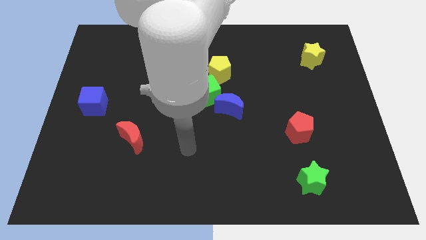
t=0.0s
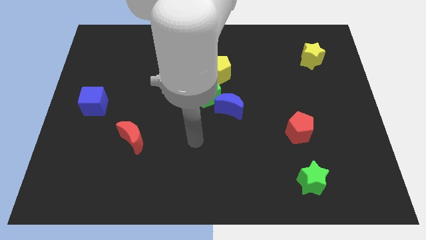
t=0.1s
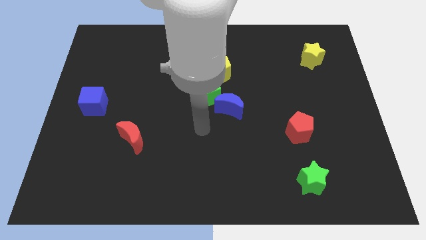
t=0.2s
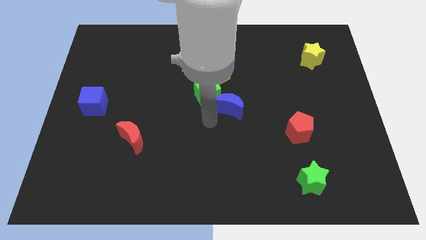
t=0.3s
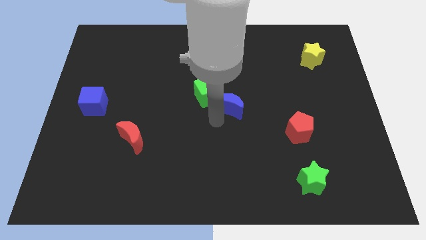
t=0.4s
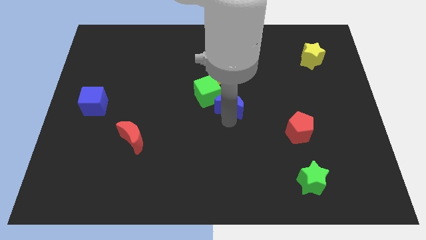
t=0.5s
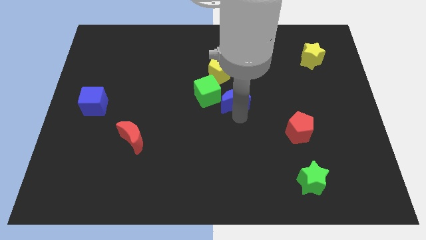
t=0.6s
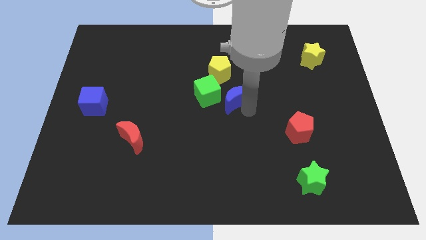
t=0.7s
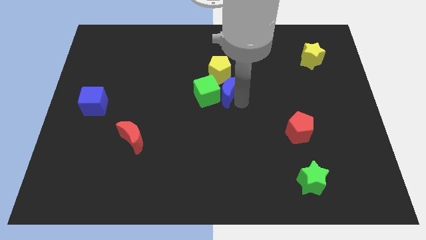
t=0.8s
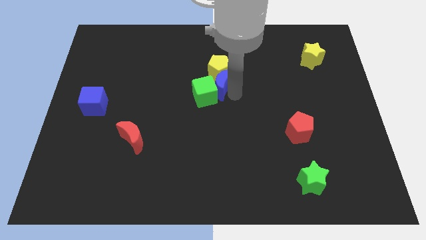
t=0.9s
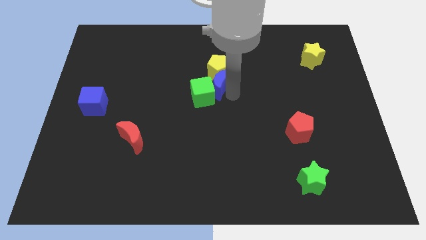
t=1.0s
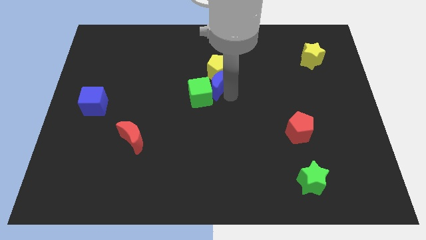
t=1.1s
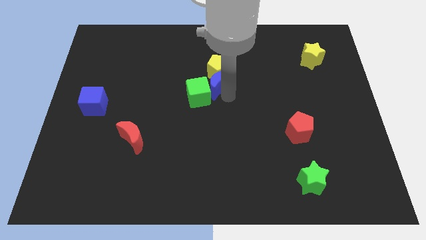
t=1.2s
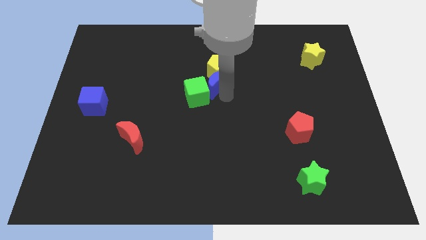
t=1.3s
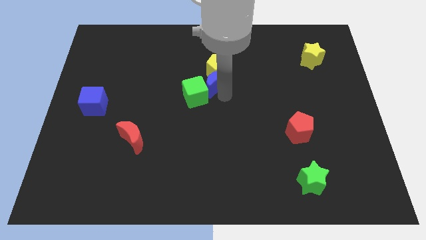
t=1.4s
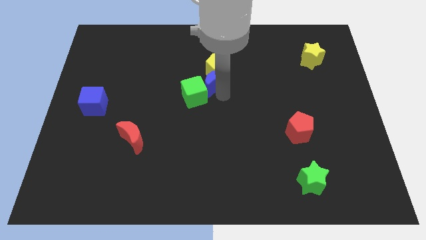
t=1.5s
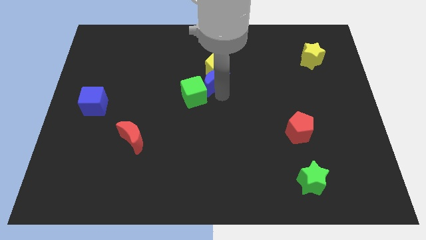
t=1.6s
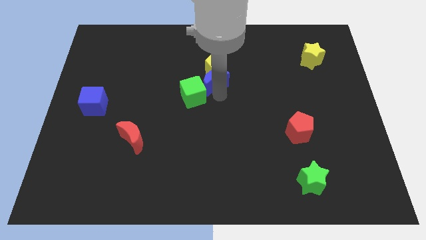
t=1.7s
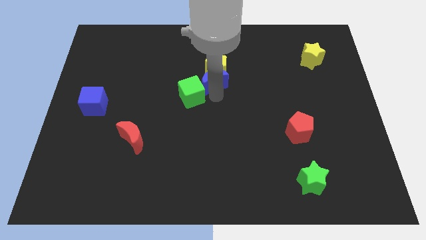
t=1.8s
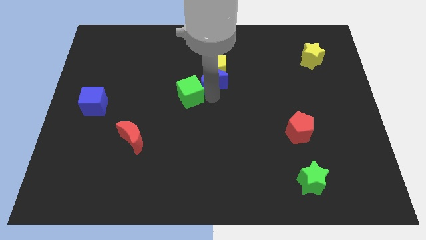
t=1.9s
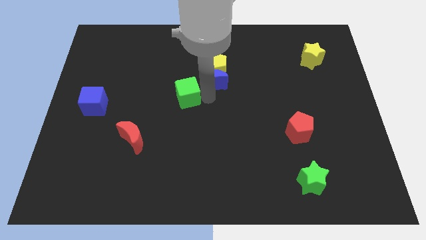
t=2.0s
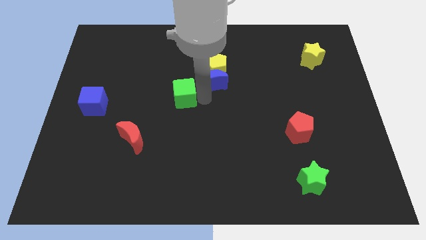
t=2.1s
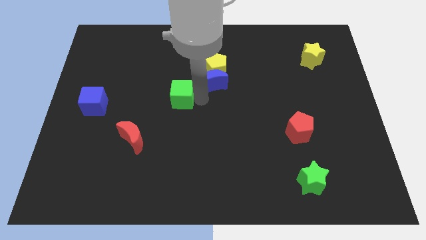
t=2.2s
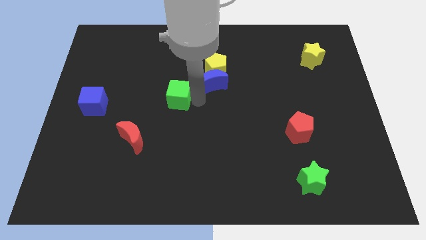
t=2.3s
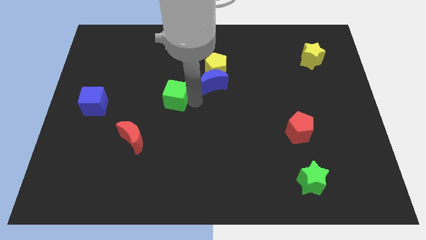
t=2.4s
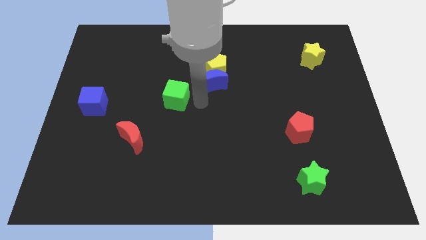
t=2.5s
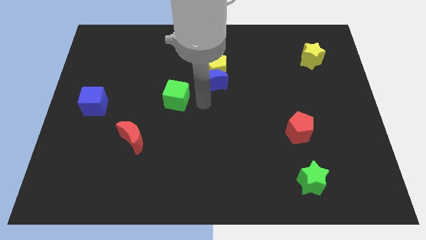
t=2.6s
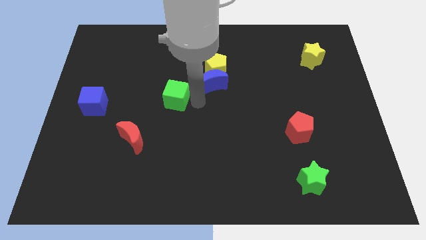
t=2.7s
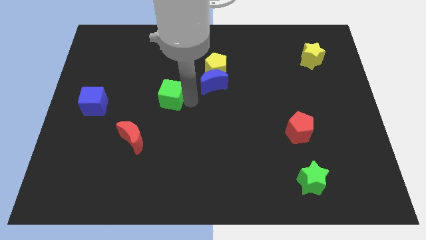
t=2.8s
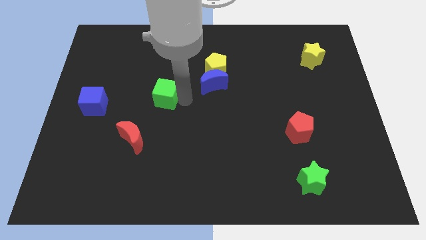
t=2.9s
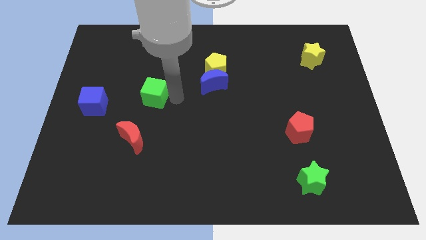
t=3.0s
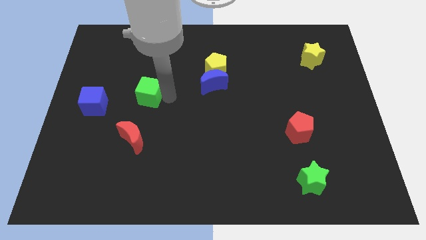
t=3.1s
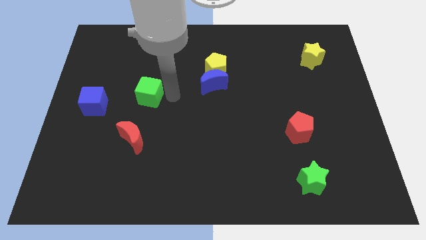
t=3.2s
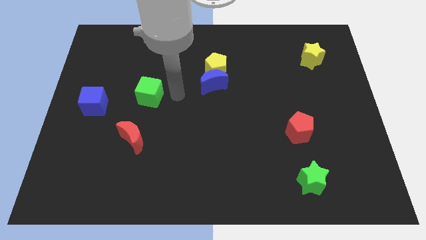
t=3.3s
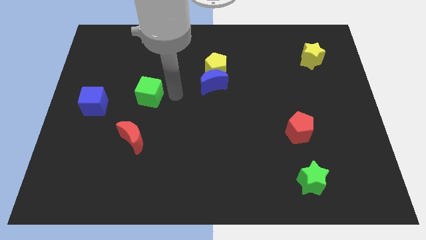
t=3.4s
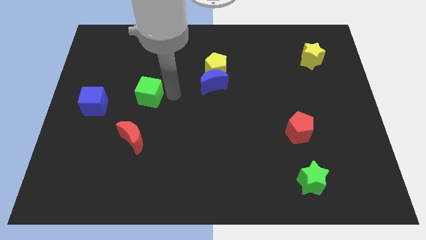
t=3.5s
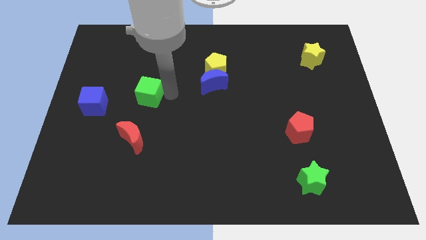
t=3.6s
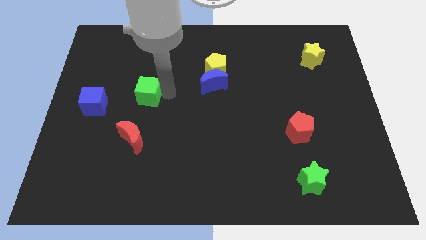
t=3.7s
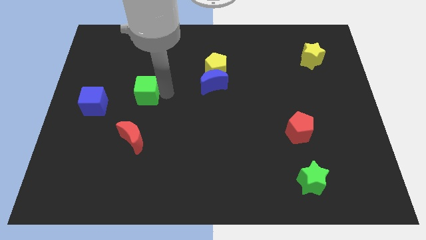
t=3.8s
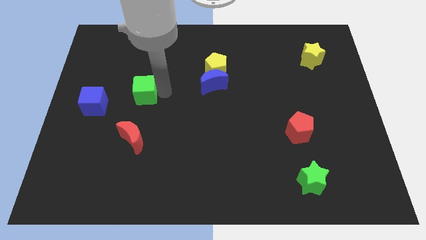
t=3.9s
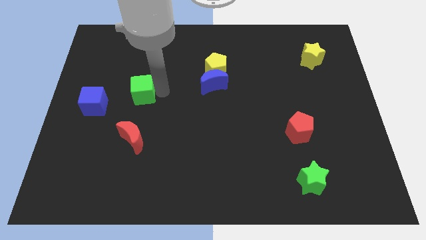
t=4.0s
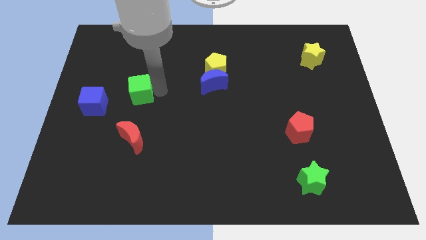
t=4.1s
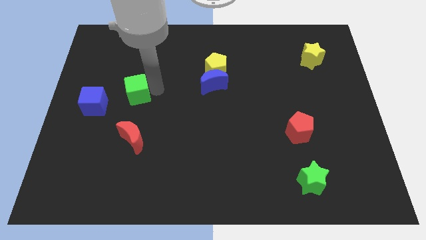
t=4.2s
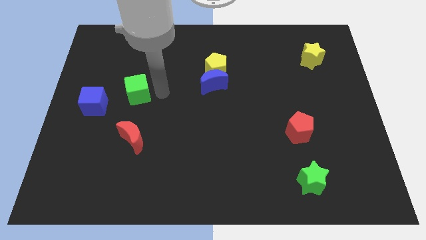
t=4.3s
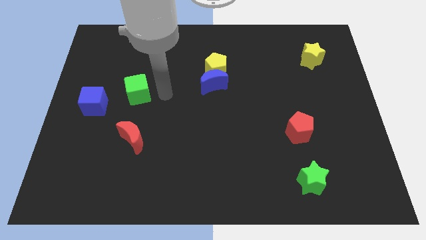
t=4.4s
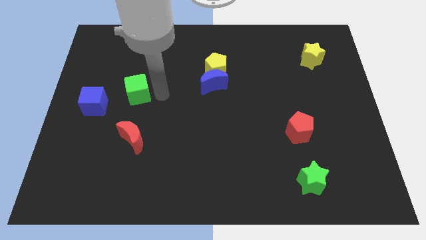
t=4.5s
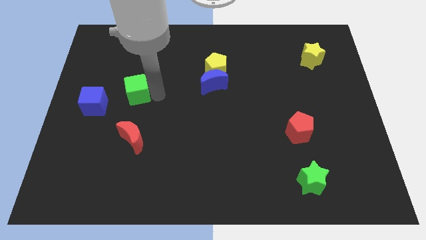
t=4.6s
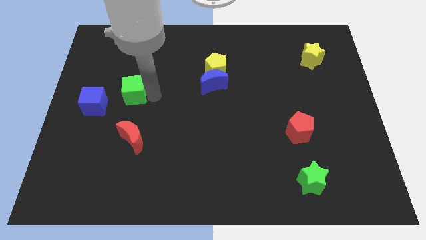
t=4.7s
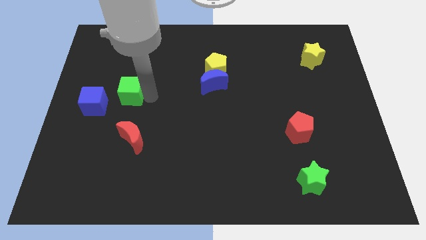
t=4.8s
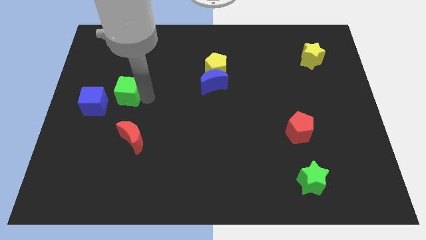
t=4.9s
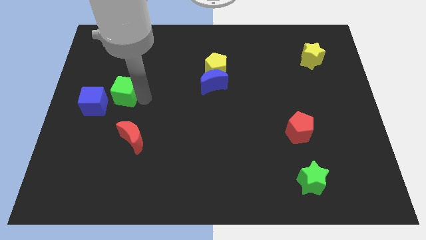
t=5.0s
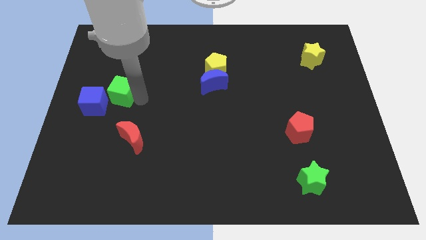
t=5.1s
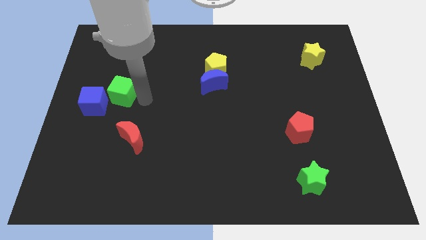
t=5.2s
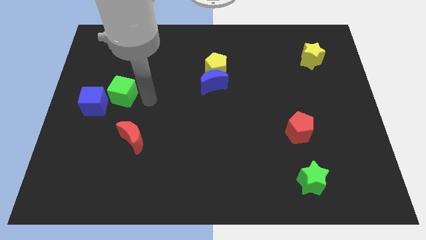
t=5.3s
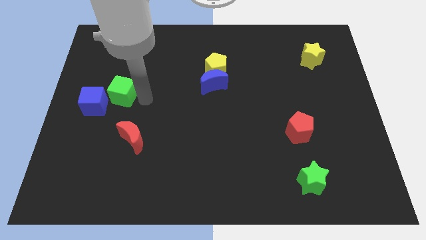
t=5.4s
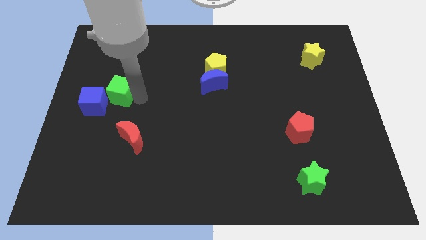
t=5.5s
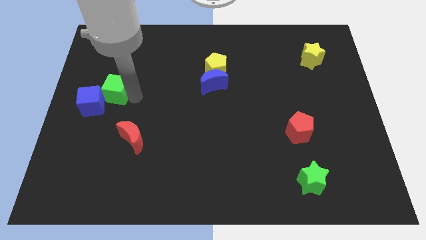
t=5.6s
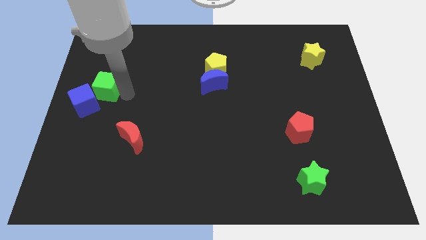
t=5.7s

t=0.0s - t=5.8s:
put the green cube to the left side

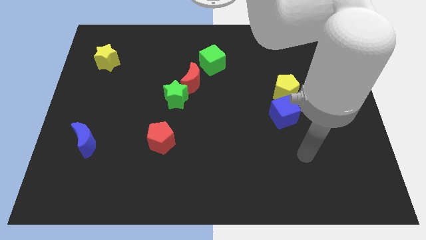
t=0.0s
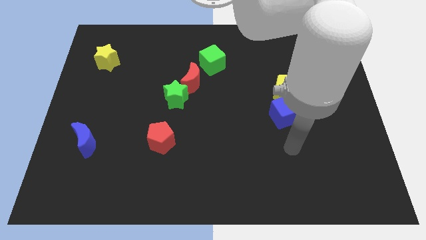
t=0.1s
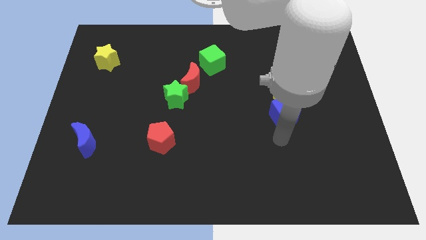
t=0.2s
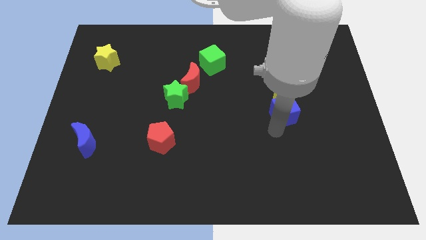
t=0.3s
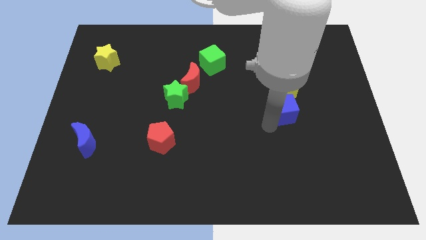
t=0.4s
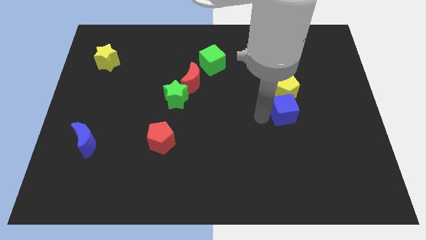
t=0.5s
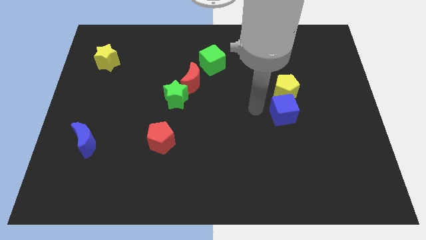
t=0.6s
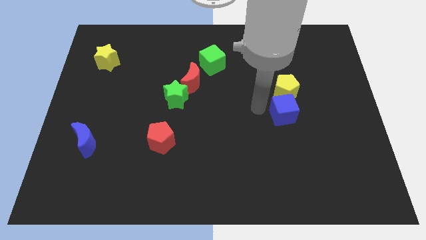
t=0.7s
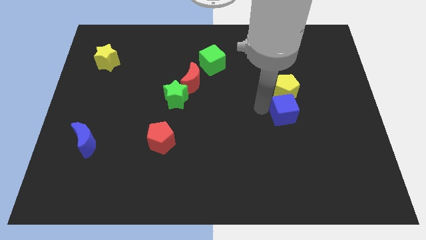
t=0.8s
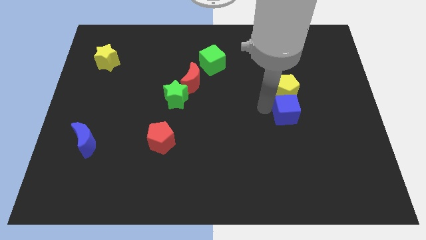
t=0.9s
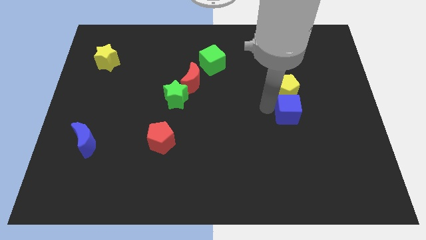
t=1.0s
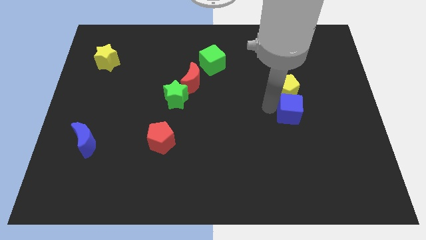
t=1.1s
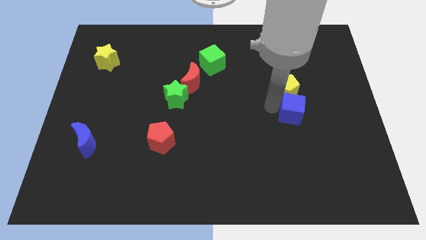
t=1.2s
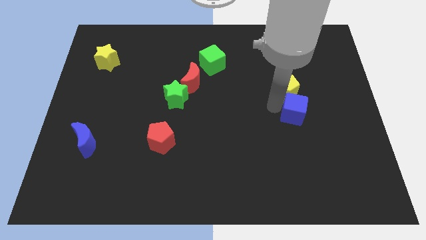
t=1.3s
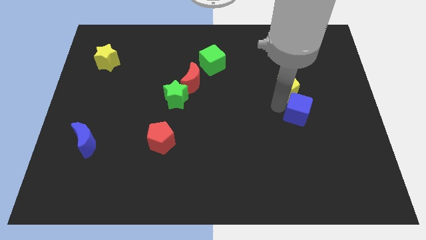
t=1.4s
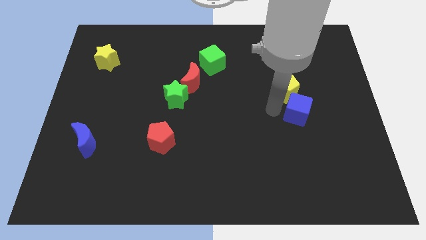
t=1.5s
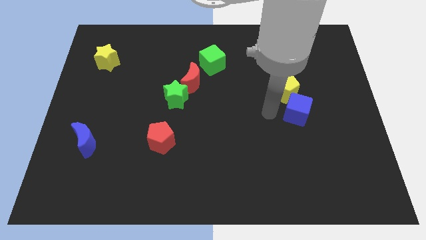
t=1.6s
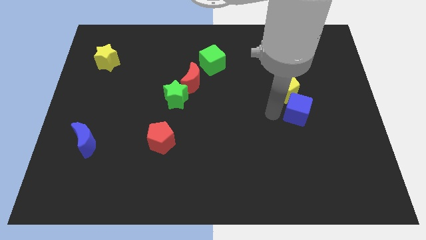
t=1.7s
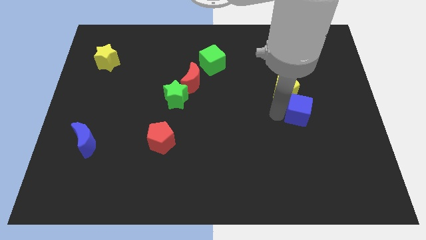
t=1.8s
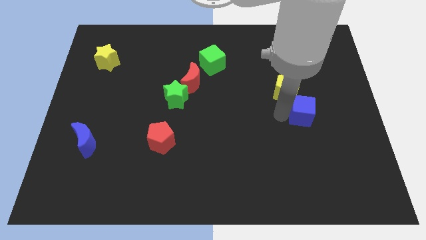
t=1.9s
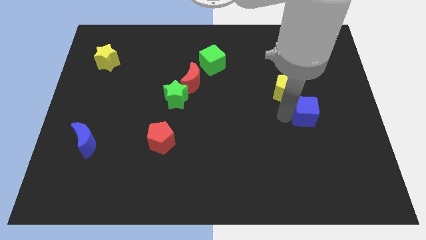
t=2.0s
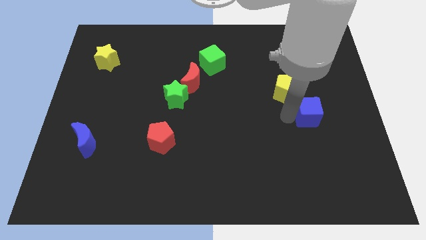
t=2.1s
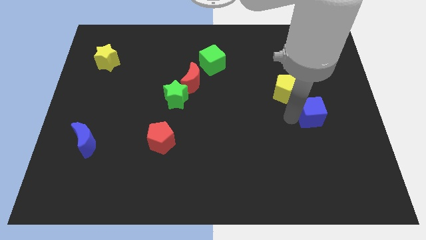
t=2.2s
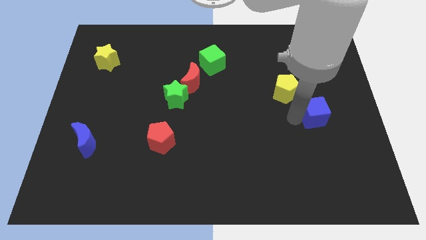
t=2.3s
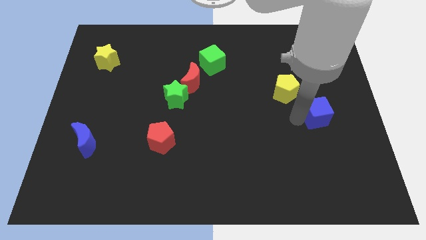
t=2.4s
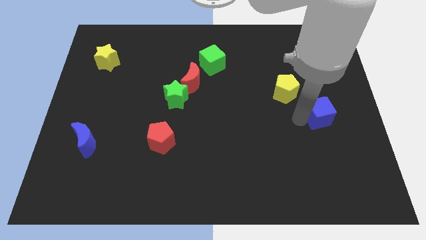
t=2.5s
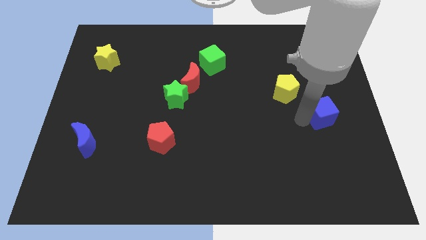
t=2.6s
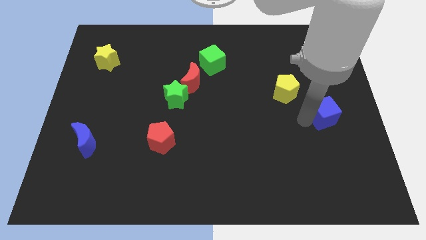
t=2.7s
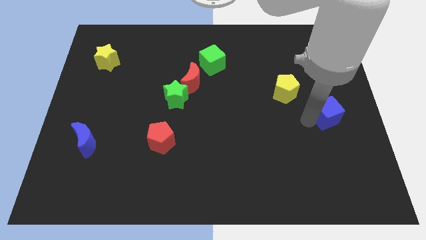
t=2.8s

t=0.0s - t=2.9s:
push the blue cube to the right side of the board
